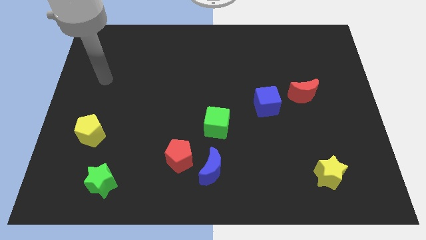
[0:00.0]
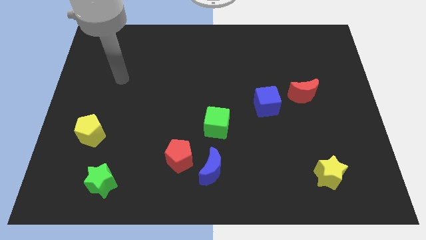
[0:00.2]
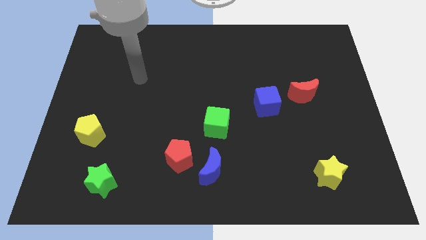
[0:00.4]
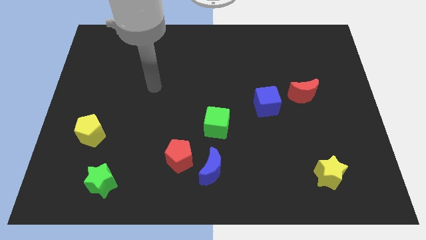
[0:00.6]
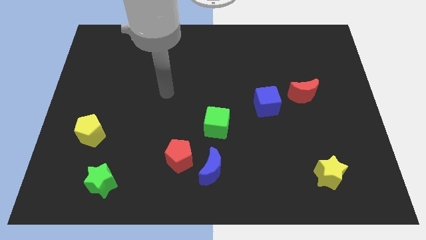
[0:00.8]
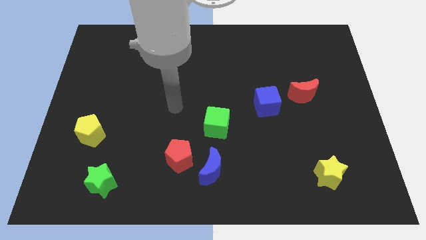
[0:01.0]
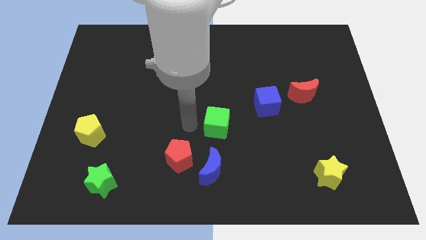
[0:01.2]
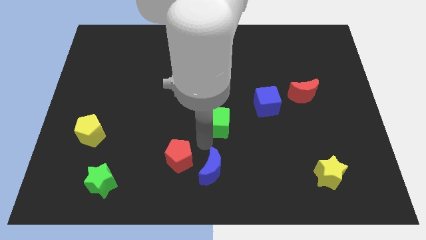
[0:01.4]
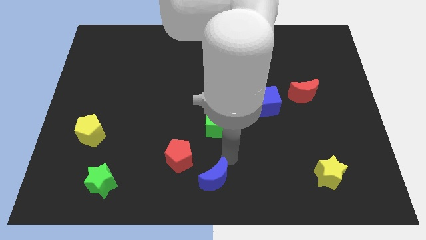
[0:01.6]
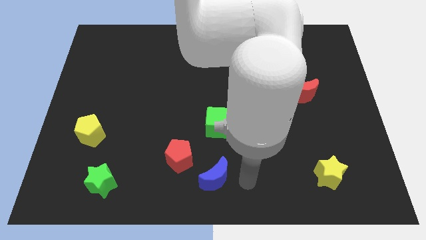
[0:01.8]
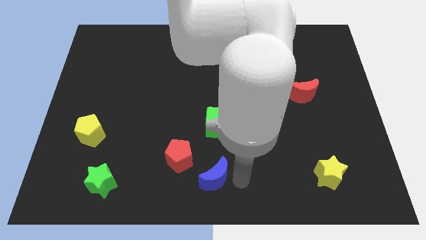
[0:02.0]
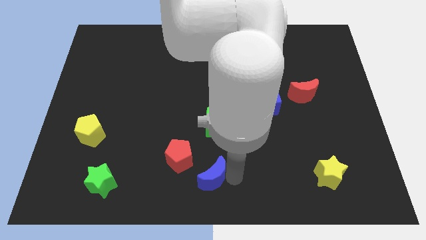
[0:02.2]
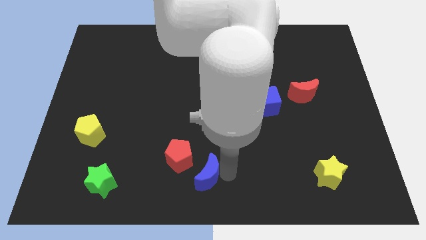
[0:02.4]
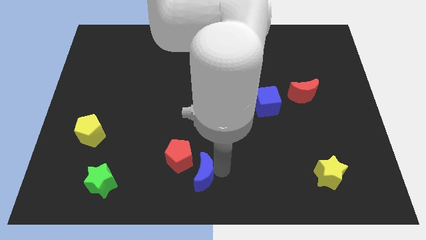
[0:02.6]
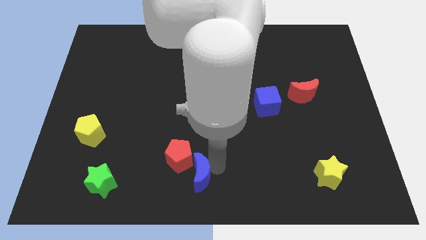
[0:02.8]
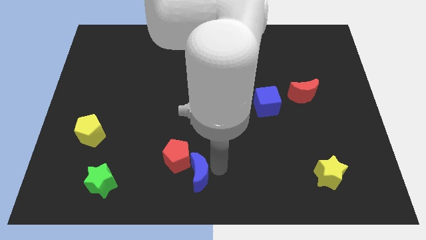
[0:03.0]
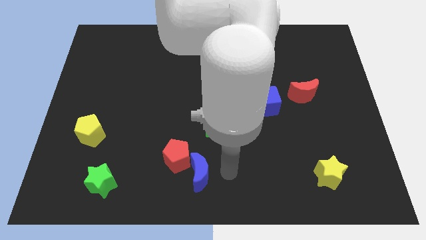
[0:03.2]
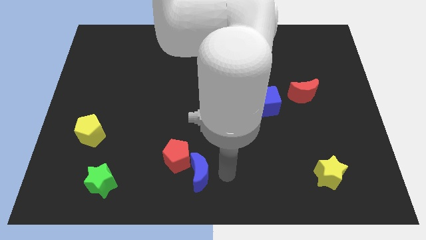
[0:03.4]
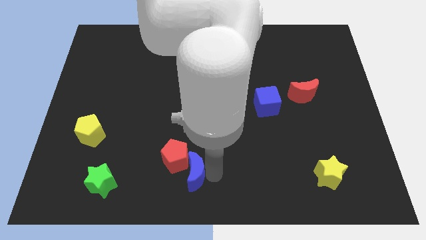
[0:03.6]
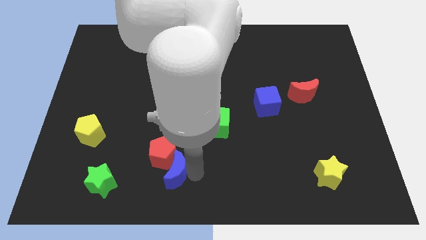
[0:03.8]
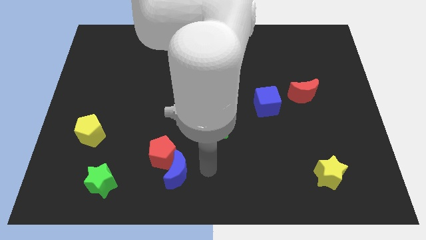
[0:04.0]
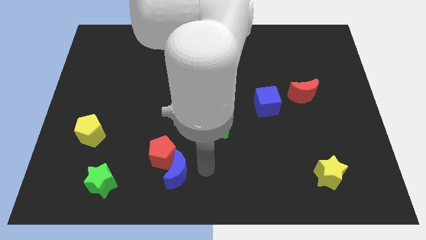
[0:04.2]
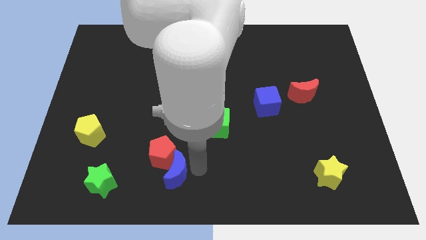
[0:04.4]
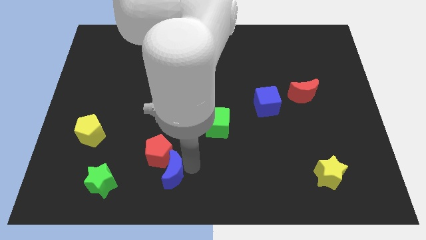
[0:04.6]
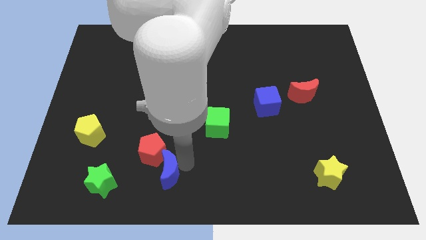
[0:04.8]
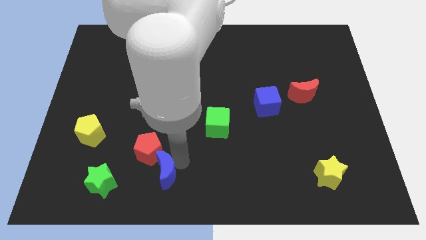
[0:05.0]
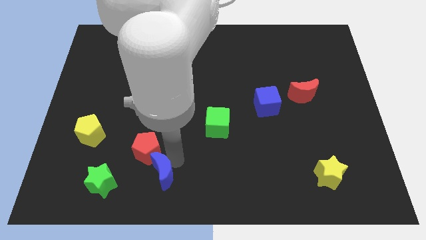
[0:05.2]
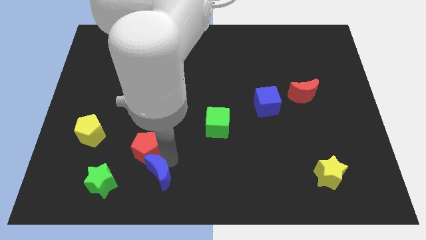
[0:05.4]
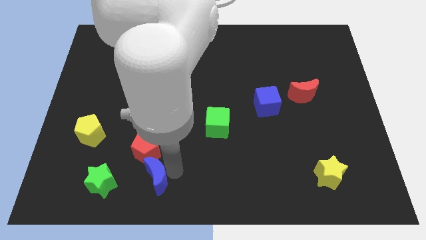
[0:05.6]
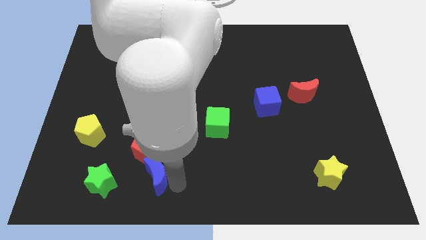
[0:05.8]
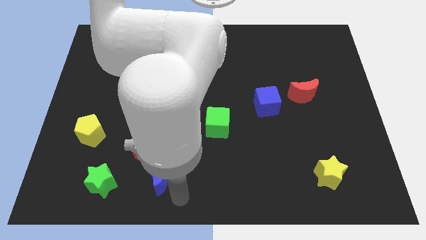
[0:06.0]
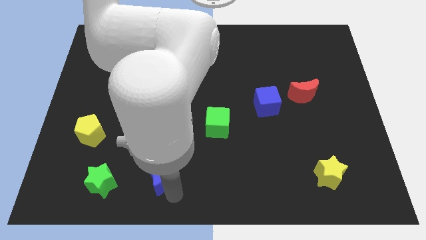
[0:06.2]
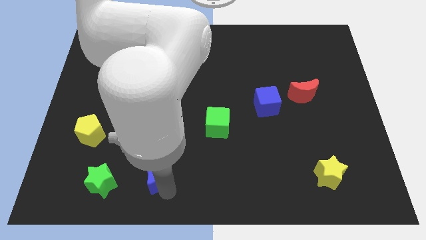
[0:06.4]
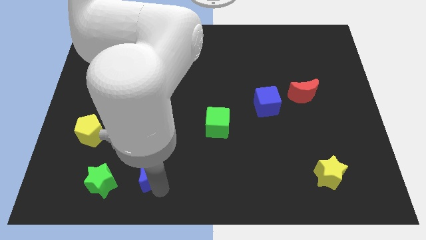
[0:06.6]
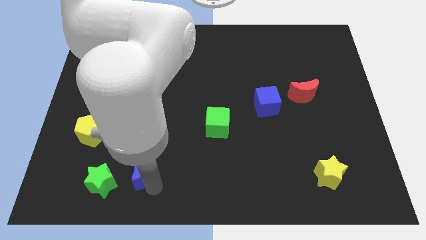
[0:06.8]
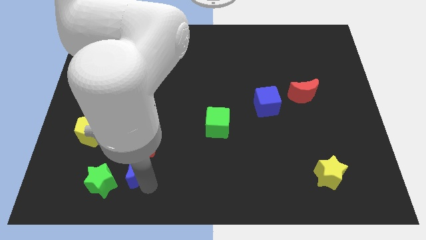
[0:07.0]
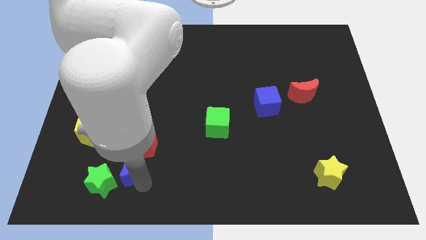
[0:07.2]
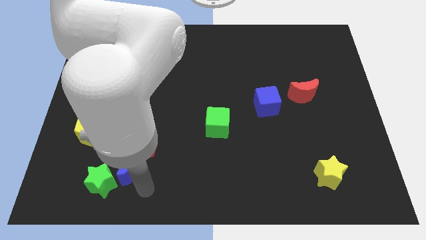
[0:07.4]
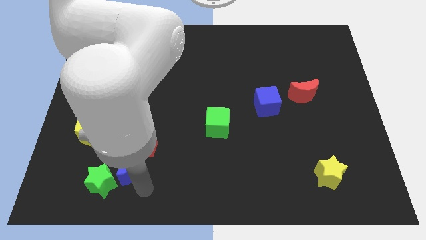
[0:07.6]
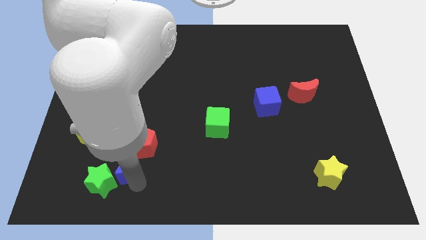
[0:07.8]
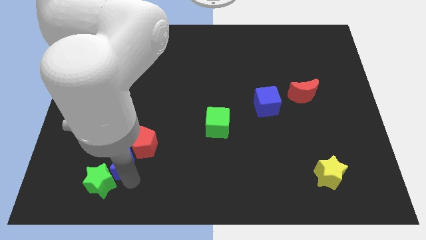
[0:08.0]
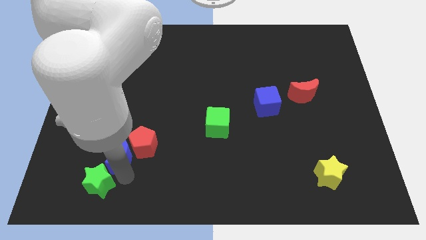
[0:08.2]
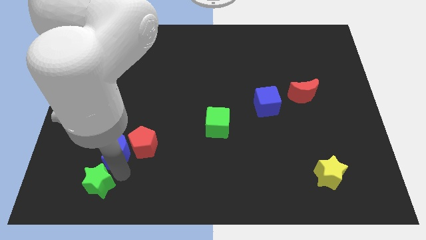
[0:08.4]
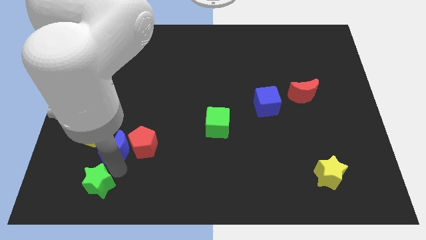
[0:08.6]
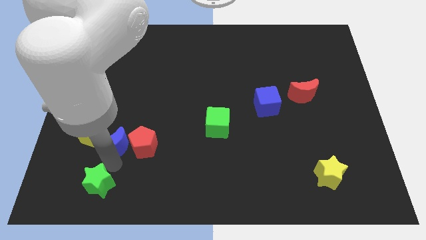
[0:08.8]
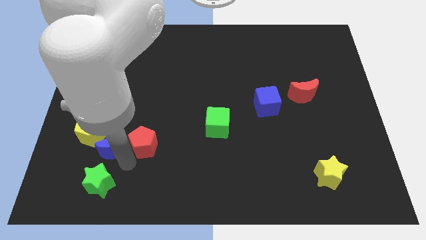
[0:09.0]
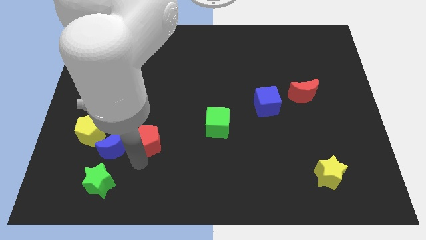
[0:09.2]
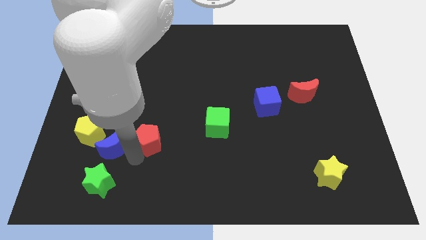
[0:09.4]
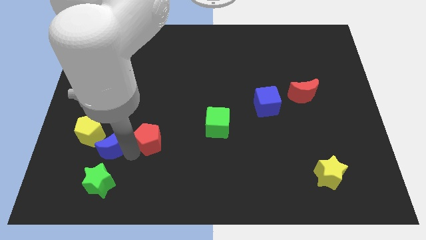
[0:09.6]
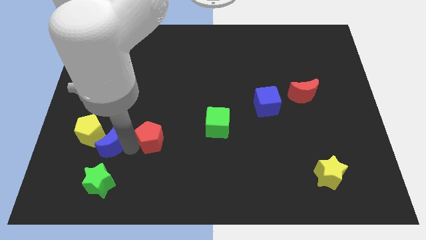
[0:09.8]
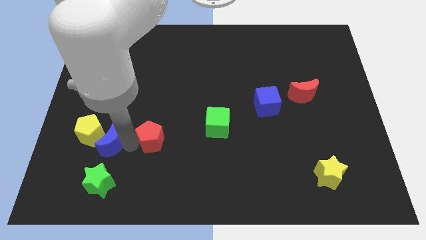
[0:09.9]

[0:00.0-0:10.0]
push the blue moon towards the yellow pentagon

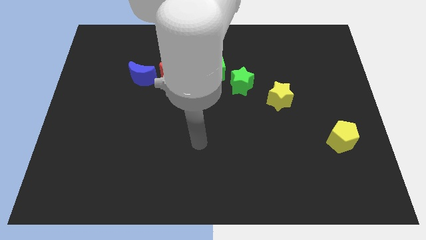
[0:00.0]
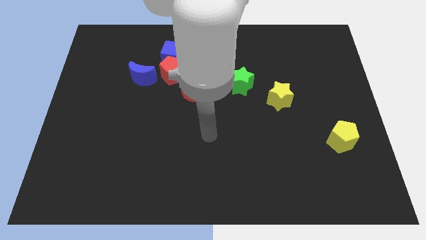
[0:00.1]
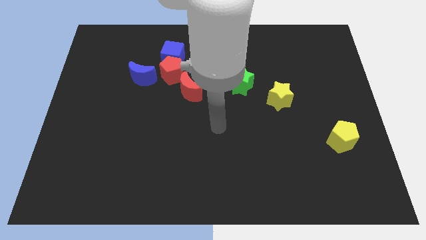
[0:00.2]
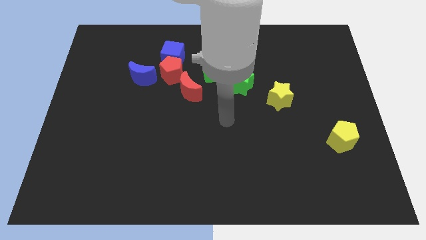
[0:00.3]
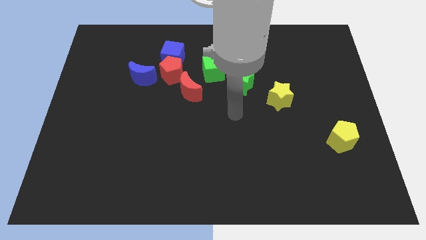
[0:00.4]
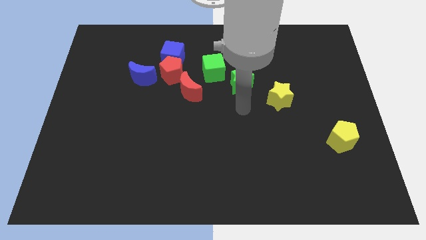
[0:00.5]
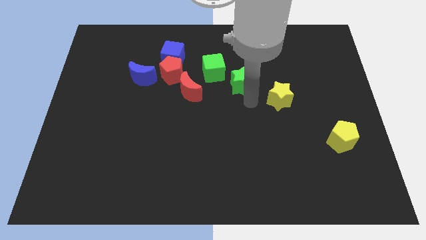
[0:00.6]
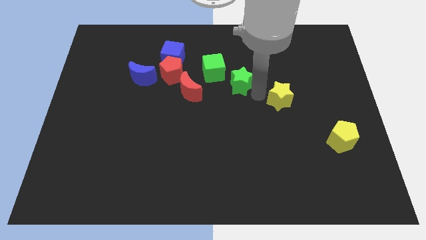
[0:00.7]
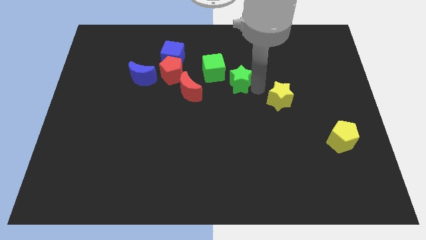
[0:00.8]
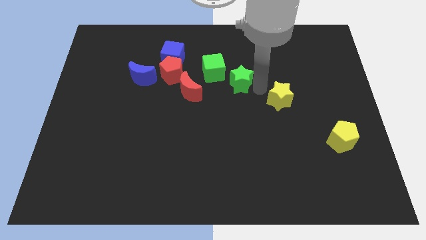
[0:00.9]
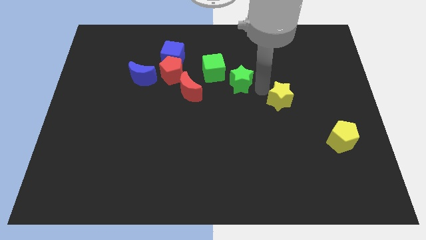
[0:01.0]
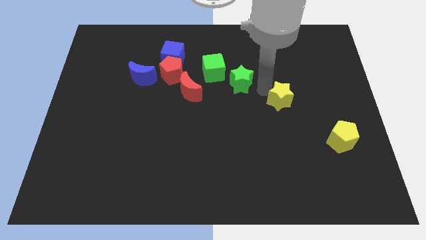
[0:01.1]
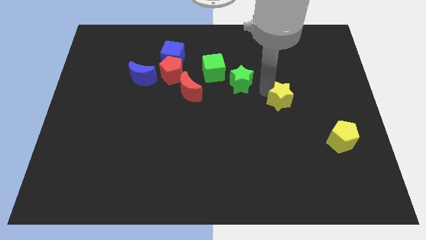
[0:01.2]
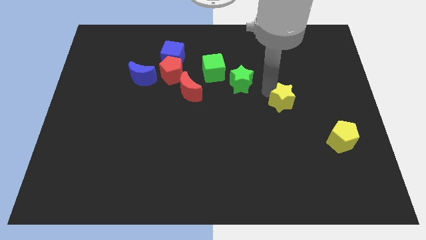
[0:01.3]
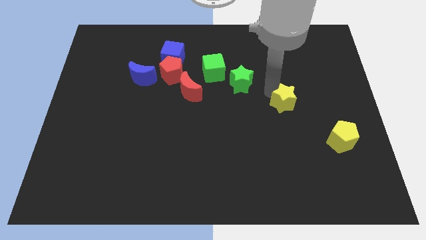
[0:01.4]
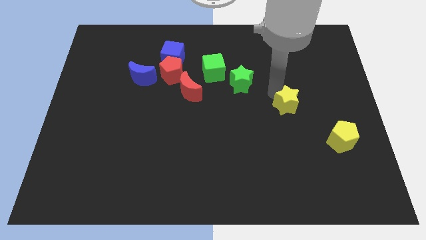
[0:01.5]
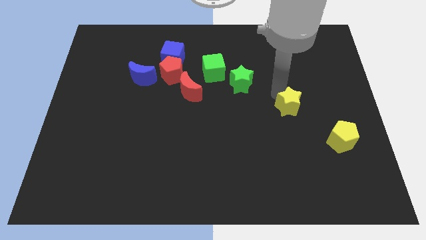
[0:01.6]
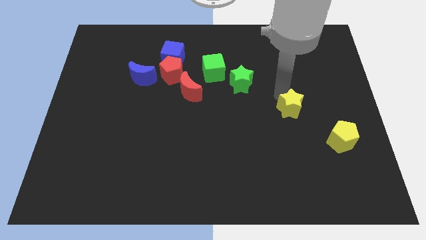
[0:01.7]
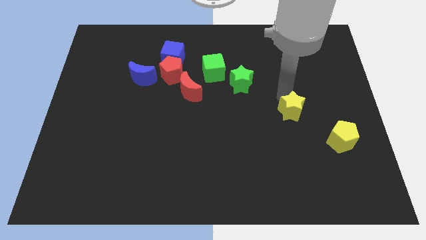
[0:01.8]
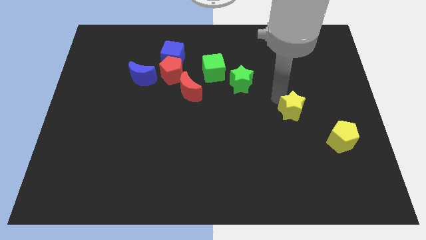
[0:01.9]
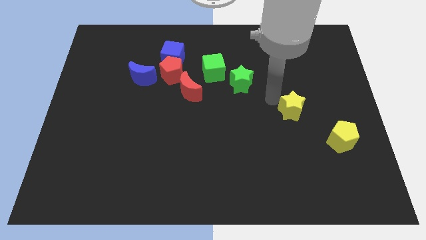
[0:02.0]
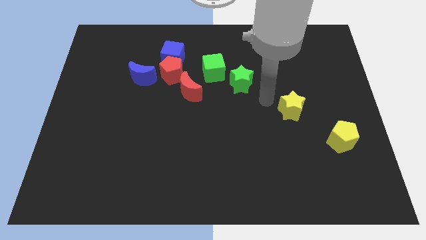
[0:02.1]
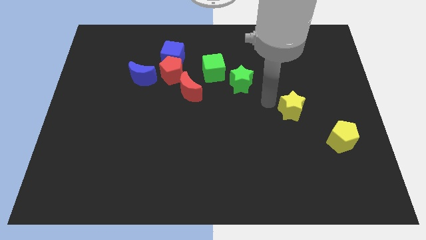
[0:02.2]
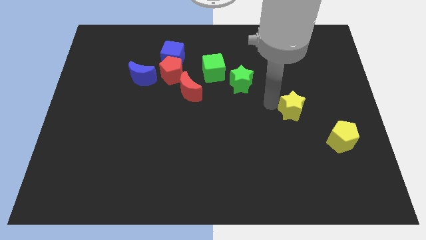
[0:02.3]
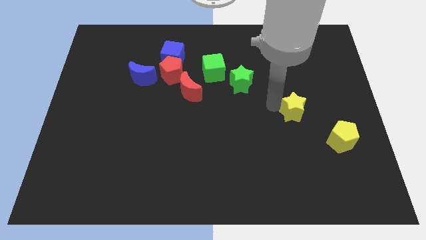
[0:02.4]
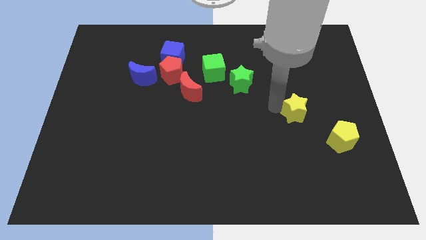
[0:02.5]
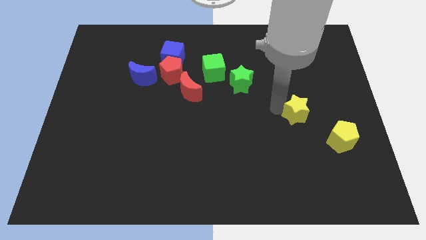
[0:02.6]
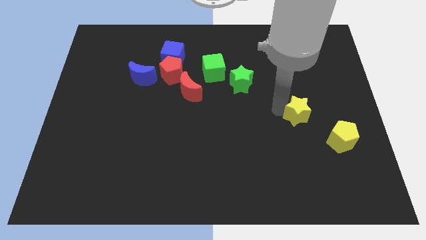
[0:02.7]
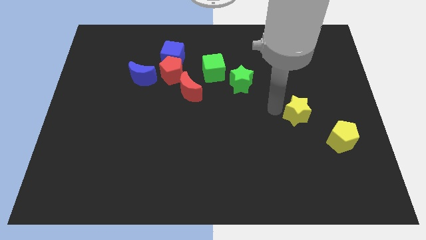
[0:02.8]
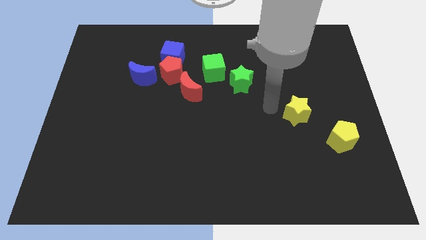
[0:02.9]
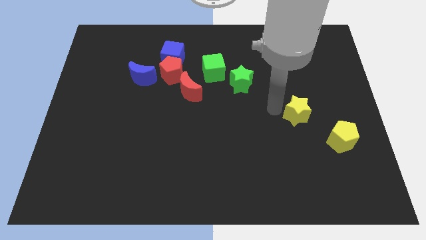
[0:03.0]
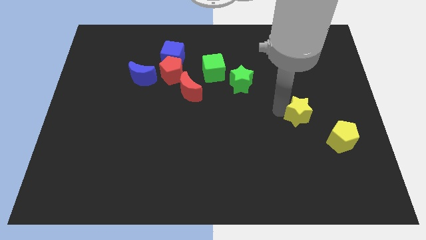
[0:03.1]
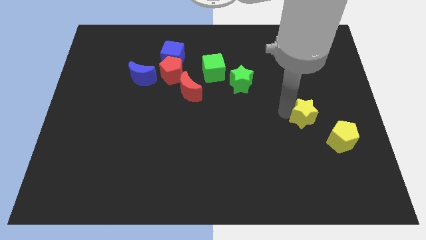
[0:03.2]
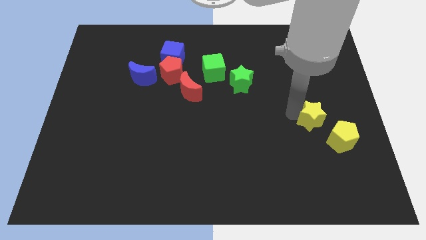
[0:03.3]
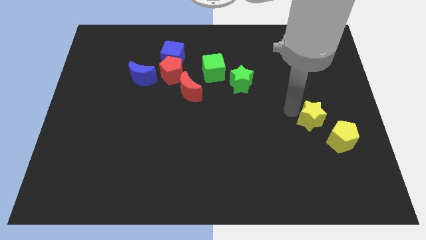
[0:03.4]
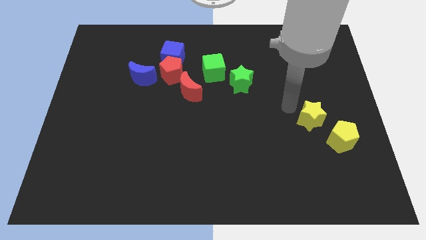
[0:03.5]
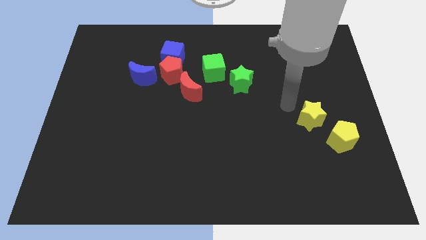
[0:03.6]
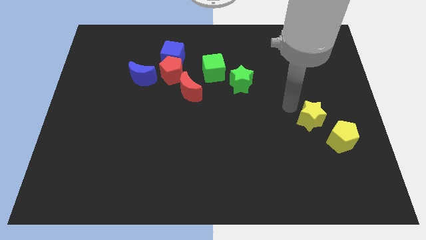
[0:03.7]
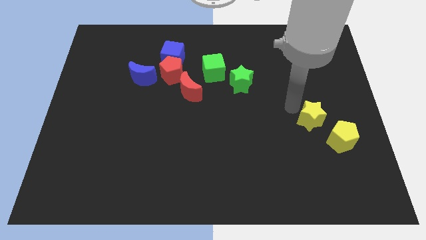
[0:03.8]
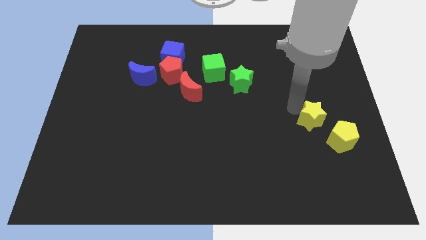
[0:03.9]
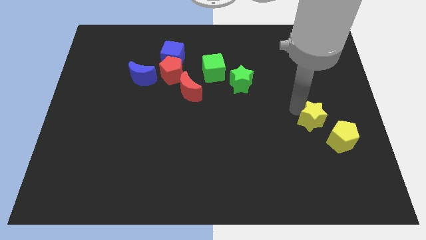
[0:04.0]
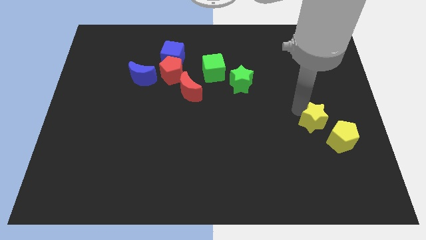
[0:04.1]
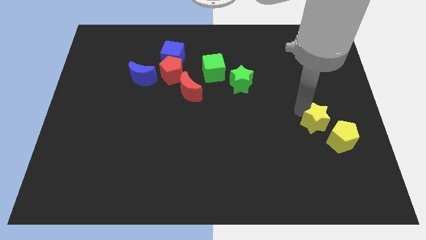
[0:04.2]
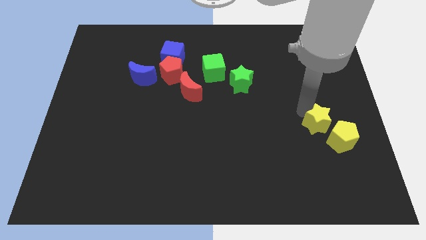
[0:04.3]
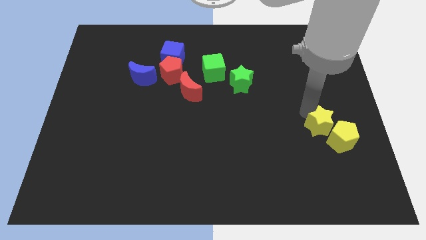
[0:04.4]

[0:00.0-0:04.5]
put the yellow star next to the yellow pentagon
